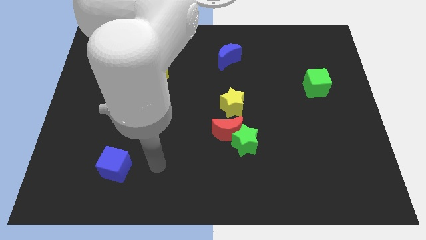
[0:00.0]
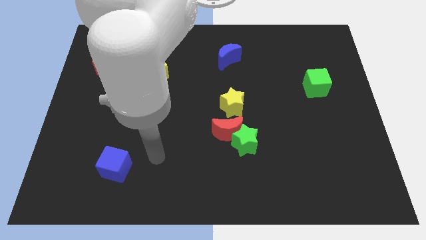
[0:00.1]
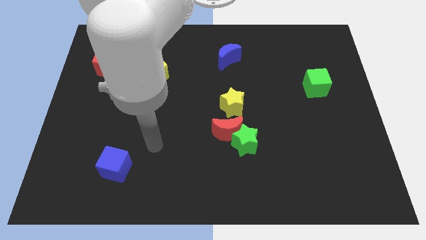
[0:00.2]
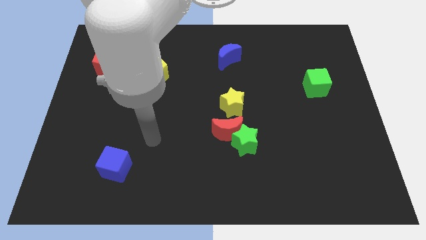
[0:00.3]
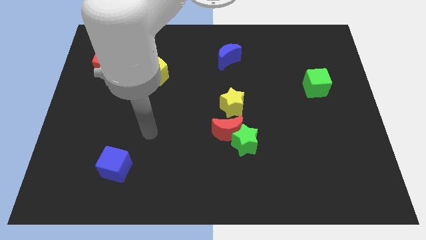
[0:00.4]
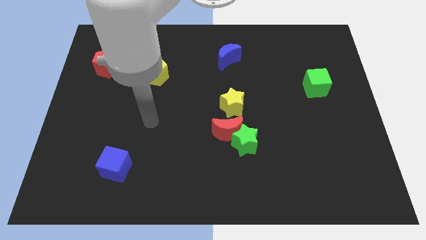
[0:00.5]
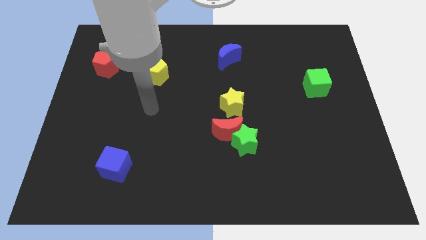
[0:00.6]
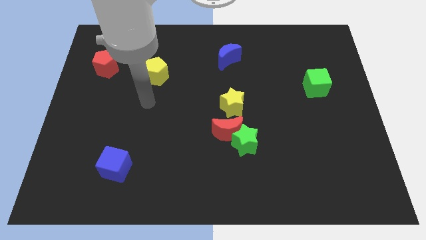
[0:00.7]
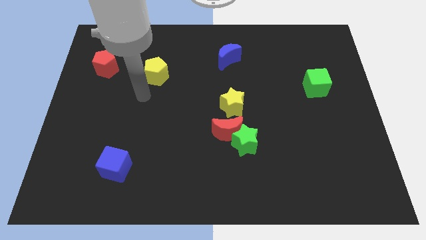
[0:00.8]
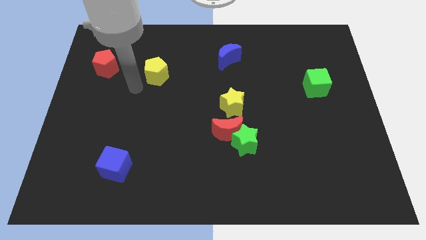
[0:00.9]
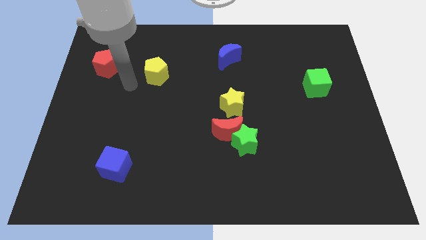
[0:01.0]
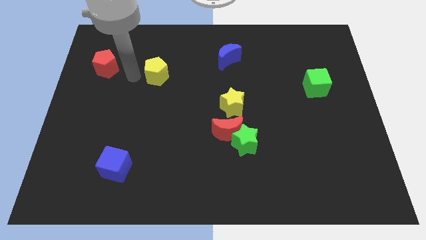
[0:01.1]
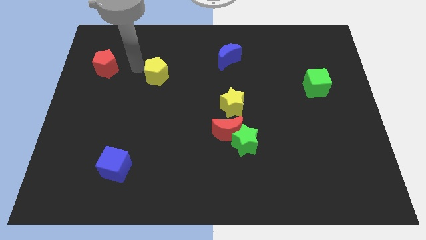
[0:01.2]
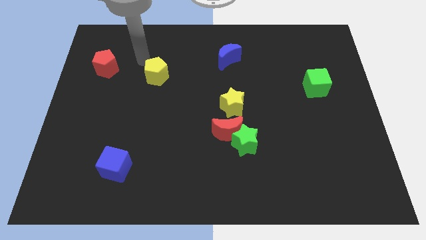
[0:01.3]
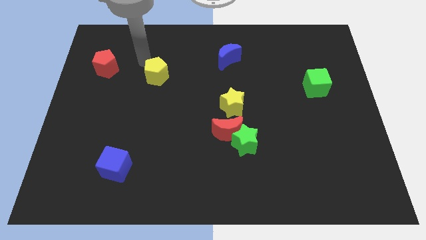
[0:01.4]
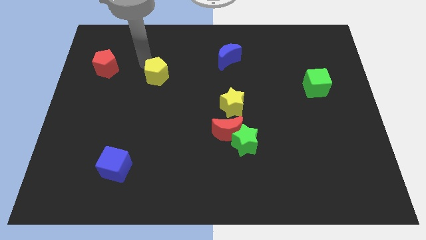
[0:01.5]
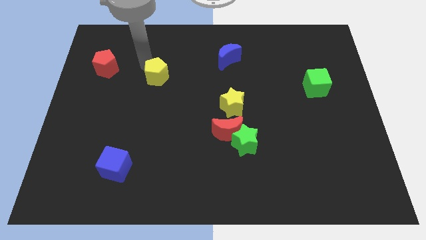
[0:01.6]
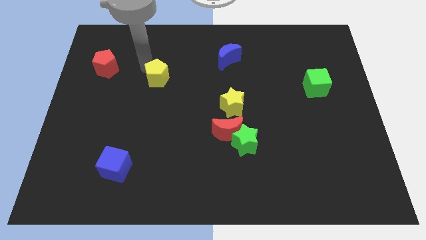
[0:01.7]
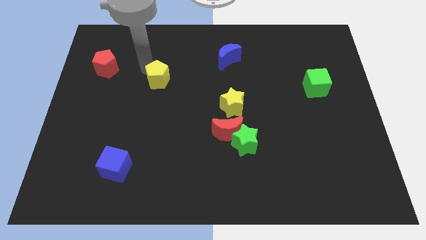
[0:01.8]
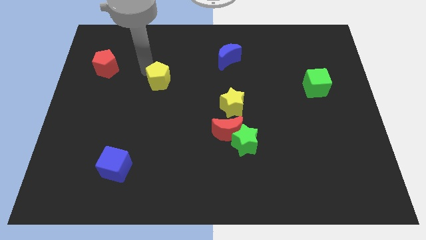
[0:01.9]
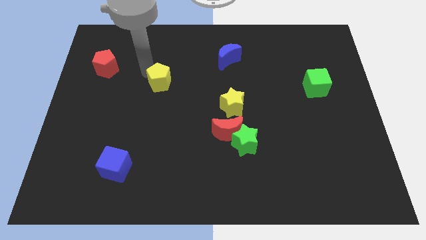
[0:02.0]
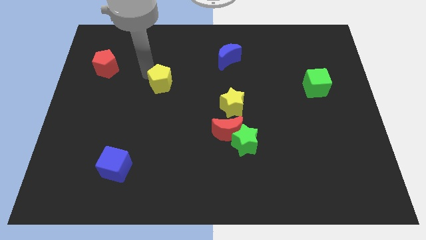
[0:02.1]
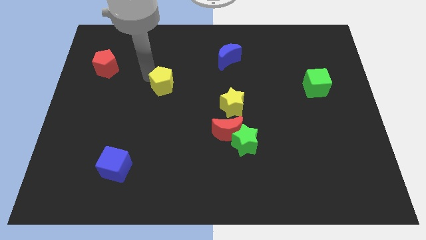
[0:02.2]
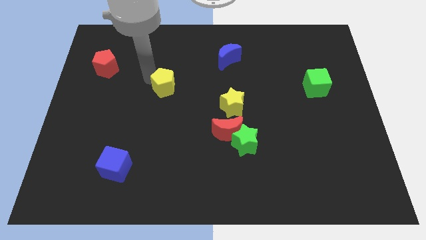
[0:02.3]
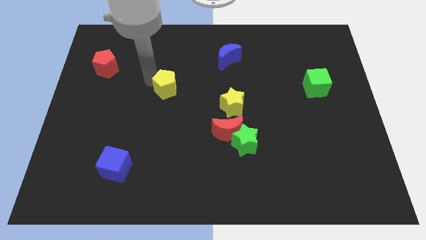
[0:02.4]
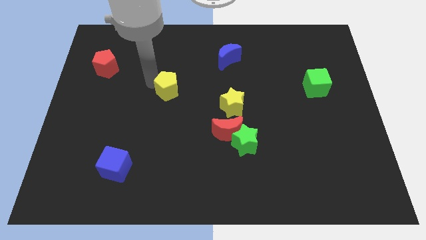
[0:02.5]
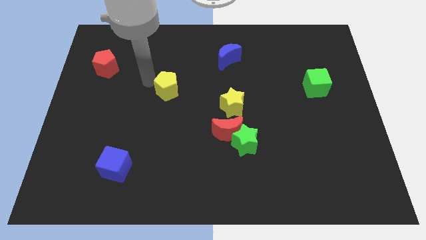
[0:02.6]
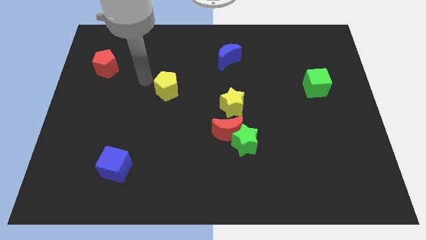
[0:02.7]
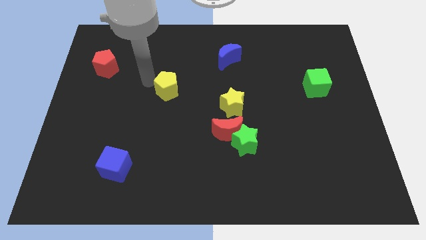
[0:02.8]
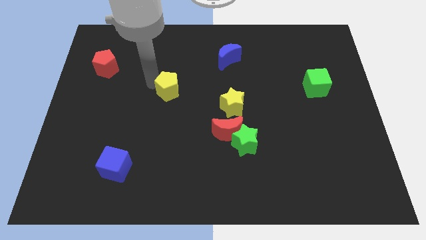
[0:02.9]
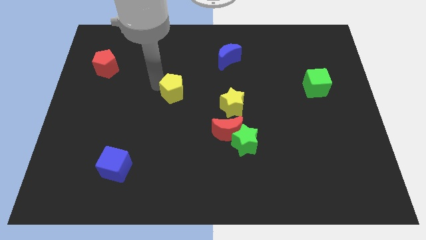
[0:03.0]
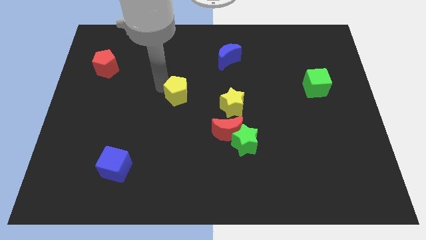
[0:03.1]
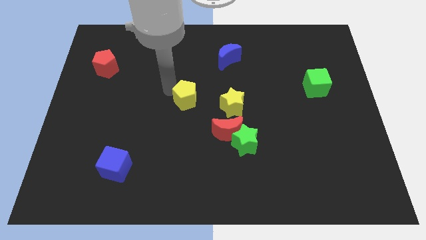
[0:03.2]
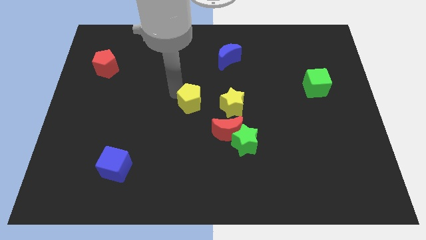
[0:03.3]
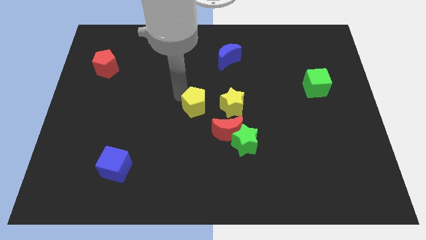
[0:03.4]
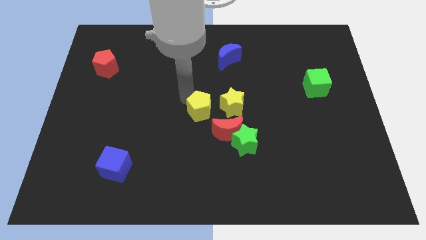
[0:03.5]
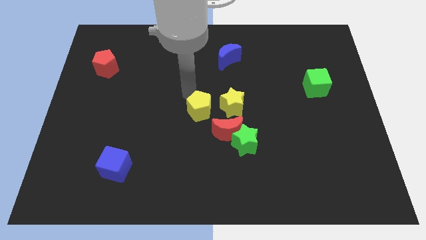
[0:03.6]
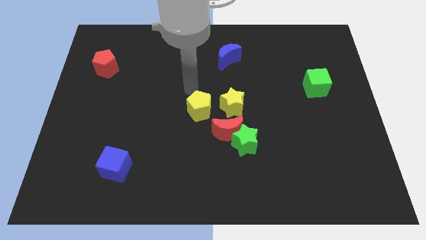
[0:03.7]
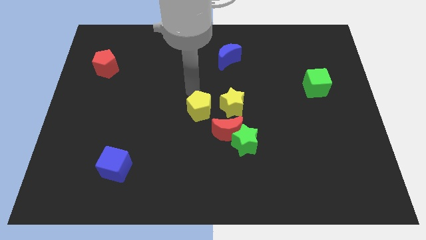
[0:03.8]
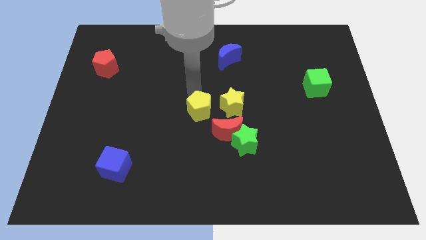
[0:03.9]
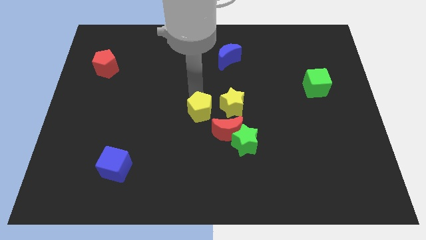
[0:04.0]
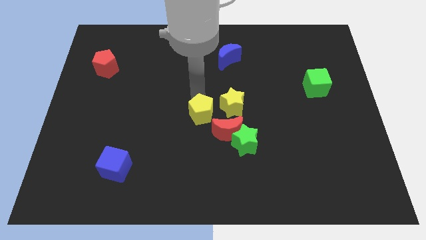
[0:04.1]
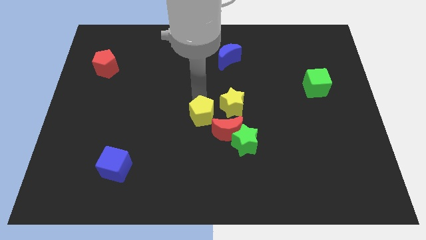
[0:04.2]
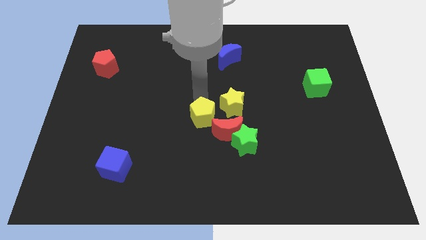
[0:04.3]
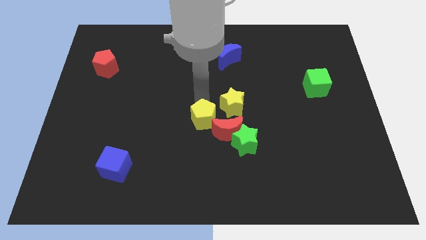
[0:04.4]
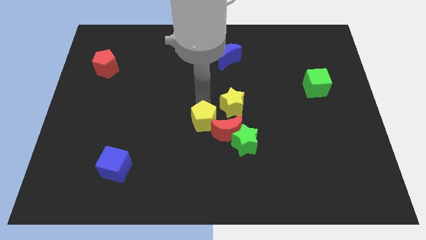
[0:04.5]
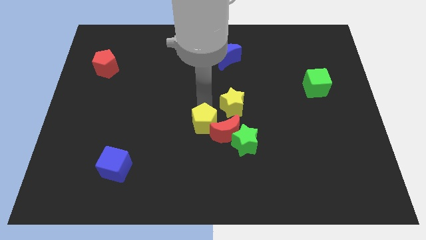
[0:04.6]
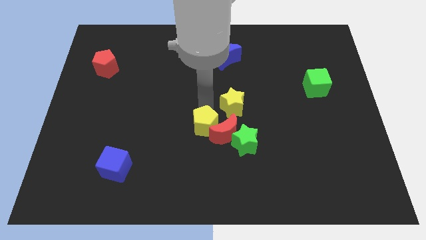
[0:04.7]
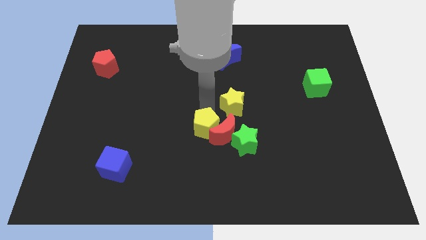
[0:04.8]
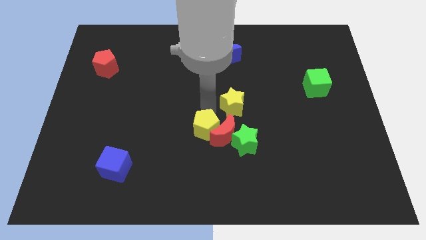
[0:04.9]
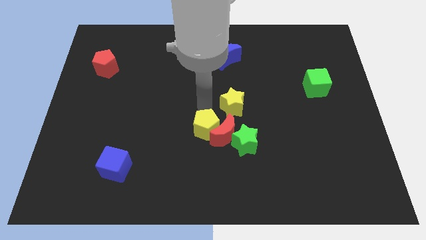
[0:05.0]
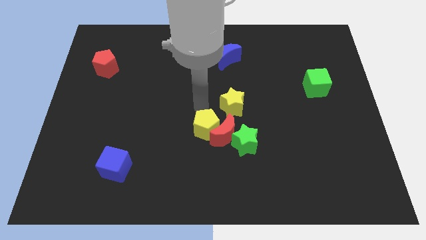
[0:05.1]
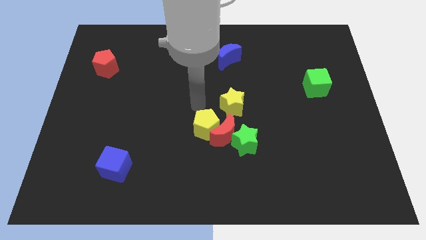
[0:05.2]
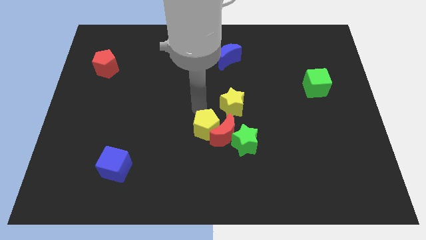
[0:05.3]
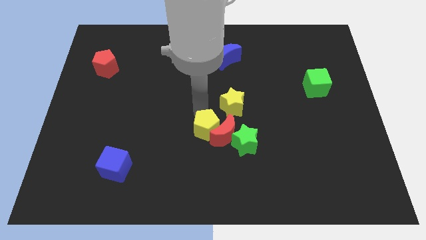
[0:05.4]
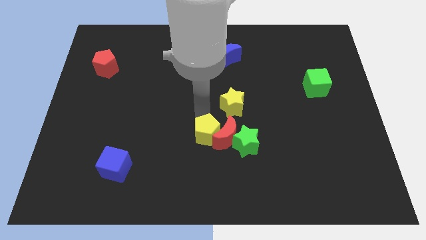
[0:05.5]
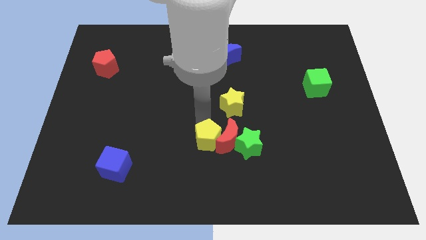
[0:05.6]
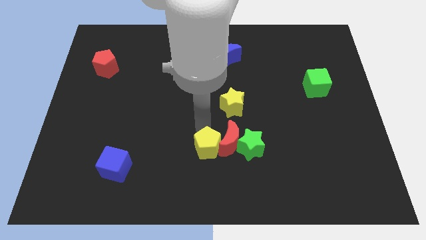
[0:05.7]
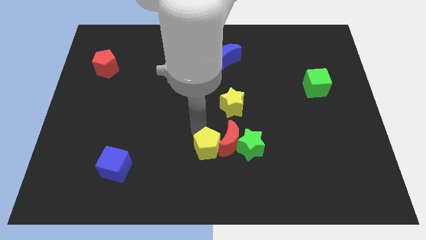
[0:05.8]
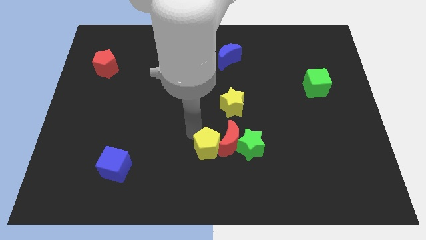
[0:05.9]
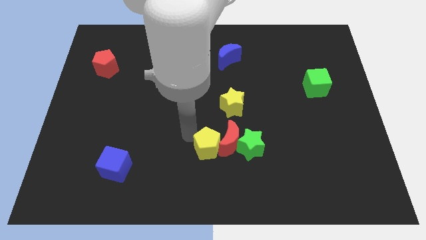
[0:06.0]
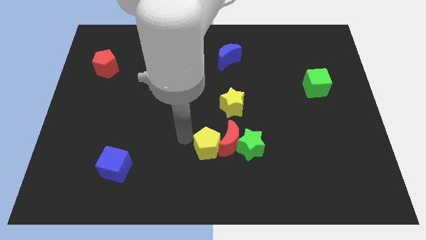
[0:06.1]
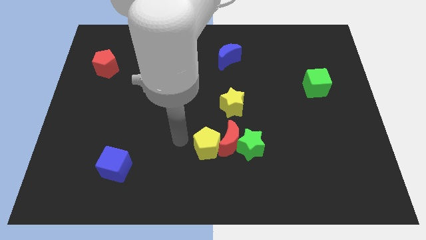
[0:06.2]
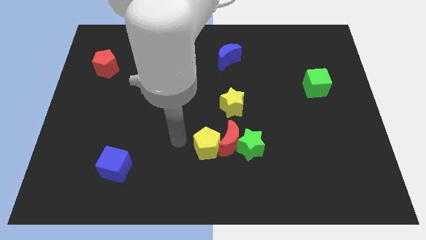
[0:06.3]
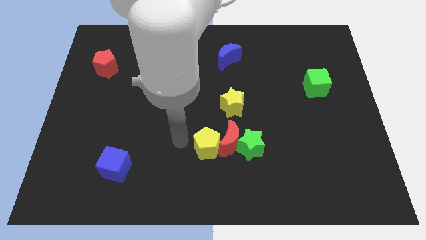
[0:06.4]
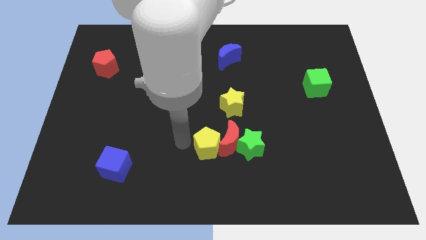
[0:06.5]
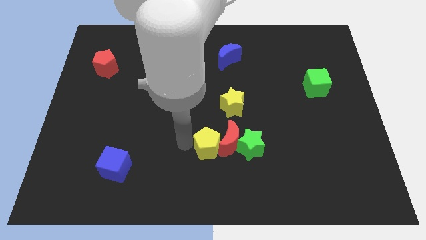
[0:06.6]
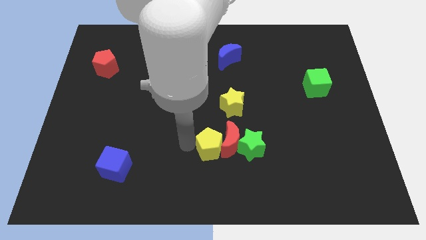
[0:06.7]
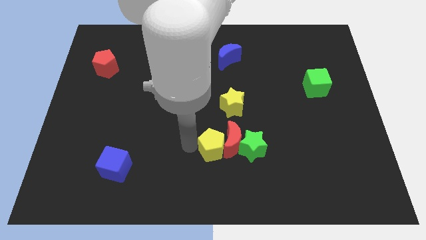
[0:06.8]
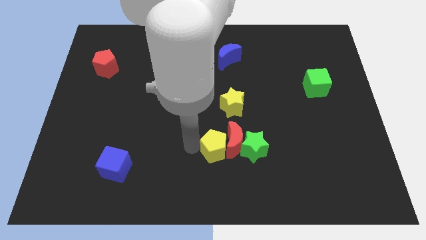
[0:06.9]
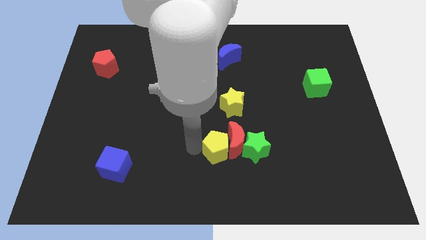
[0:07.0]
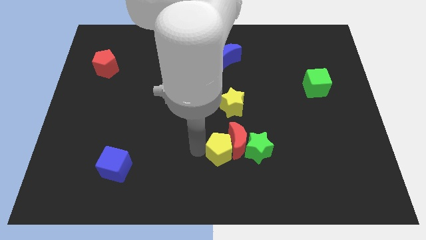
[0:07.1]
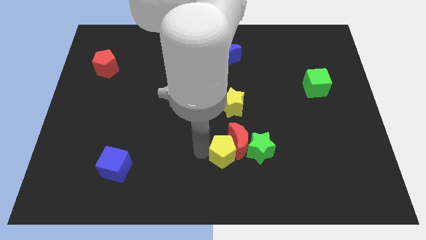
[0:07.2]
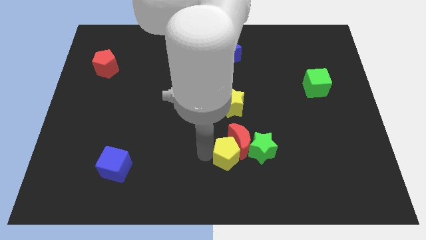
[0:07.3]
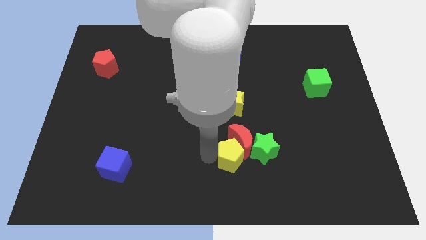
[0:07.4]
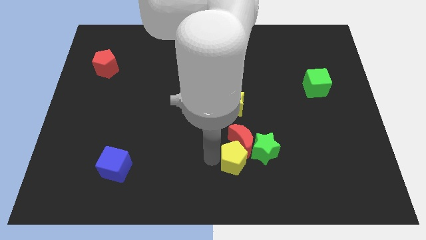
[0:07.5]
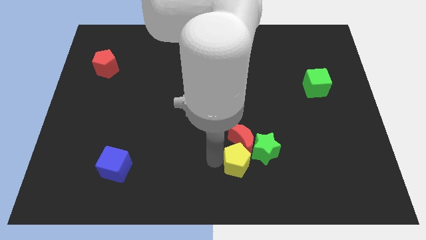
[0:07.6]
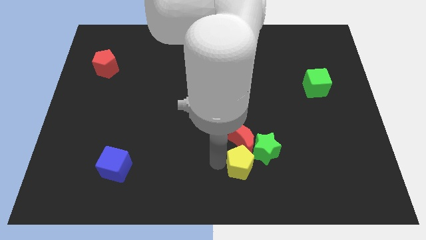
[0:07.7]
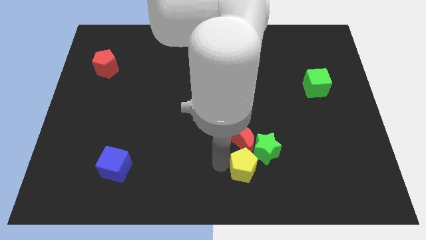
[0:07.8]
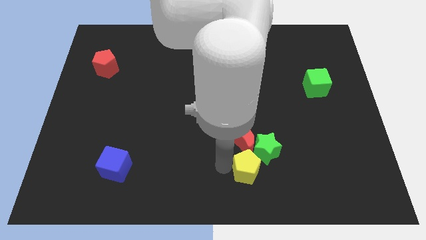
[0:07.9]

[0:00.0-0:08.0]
push the yellow pentagon towards the green star
